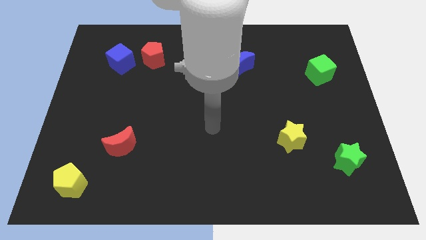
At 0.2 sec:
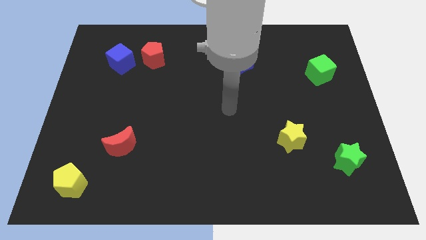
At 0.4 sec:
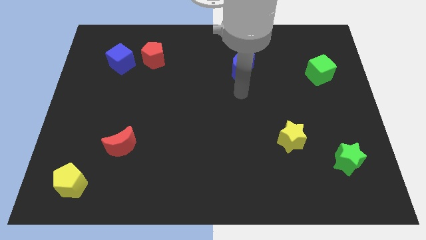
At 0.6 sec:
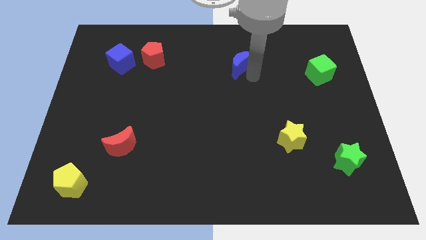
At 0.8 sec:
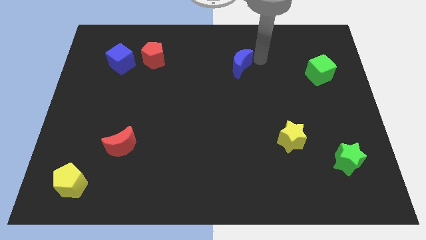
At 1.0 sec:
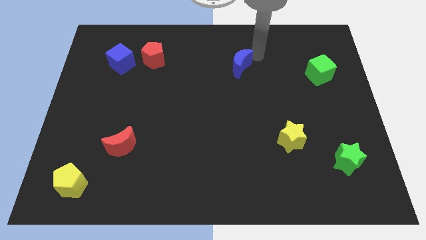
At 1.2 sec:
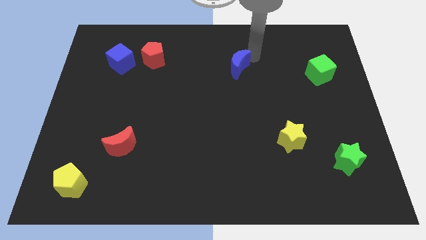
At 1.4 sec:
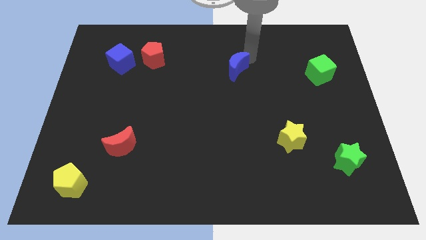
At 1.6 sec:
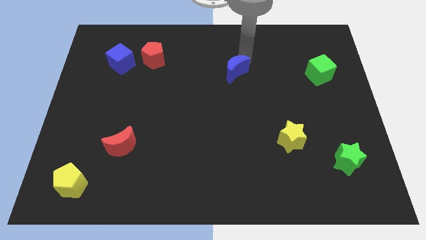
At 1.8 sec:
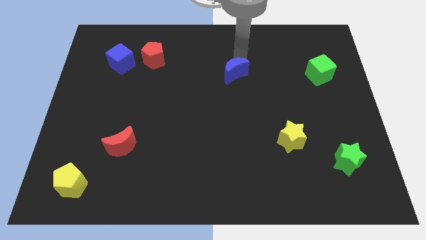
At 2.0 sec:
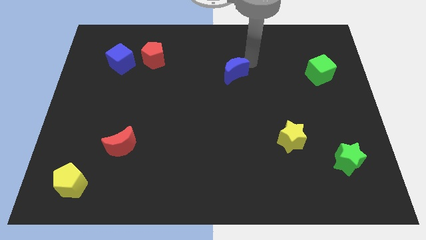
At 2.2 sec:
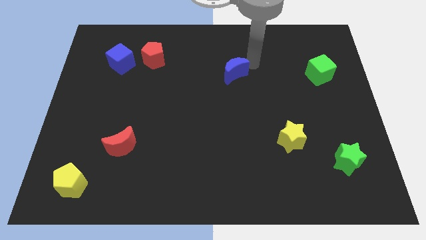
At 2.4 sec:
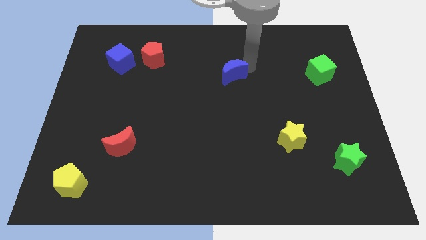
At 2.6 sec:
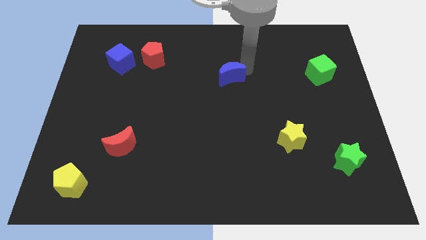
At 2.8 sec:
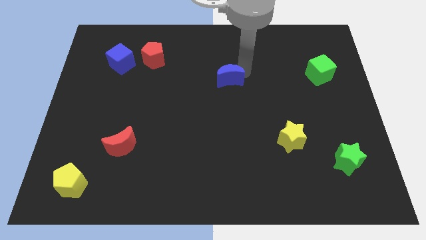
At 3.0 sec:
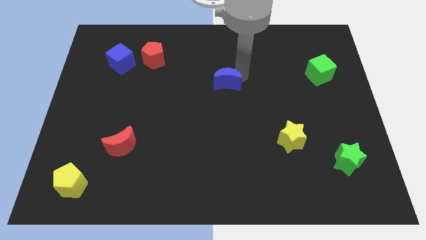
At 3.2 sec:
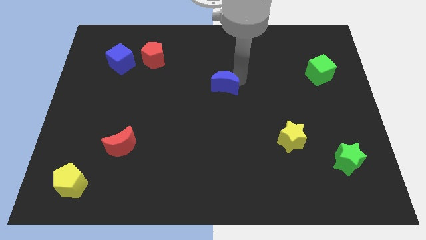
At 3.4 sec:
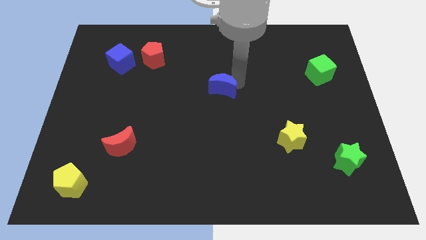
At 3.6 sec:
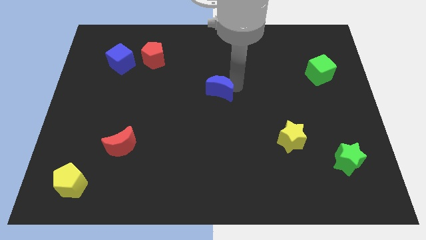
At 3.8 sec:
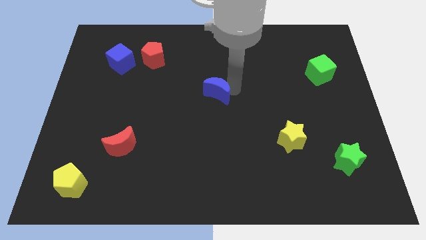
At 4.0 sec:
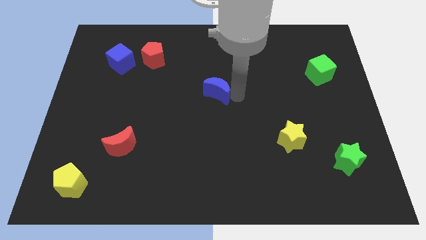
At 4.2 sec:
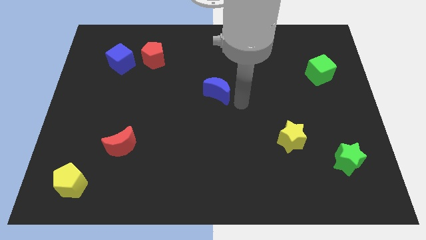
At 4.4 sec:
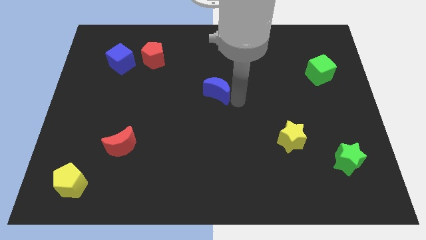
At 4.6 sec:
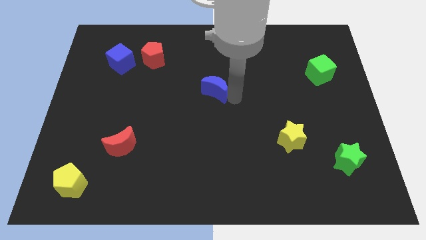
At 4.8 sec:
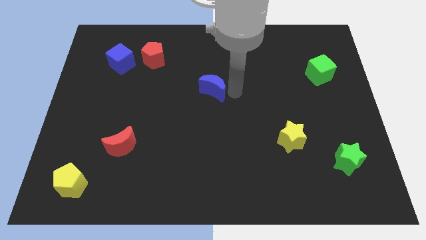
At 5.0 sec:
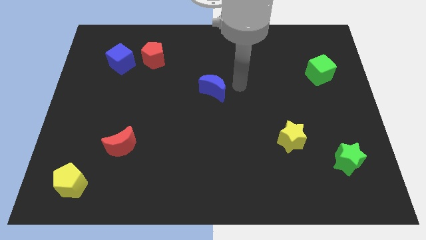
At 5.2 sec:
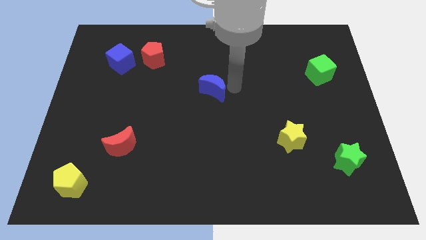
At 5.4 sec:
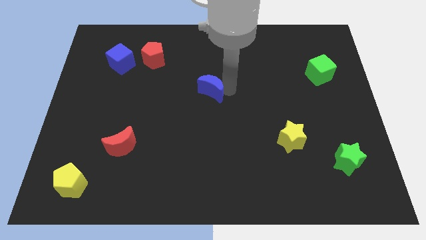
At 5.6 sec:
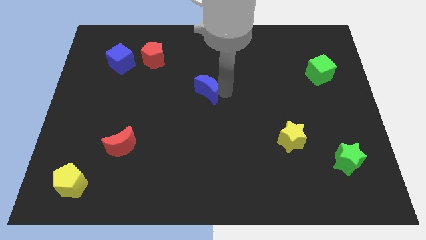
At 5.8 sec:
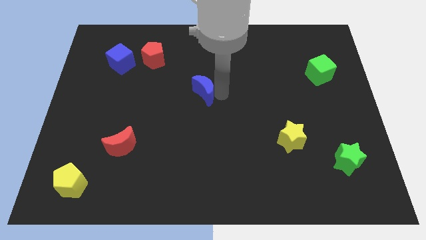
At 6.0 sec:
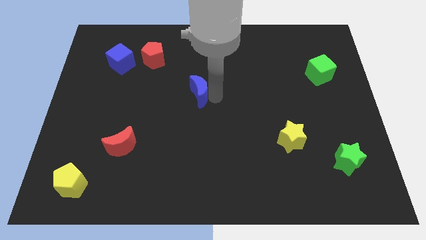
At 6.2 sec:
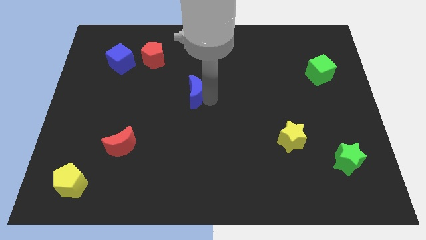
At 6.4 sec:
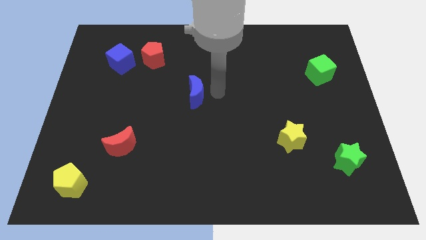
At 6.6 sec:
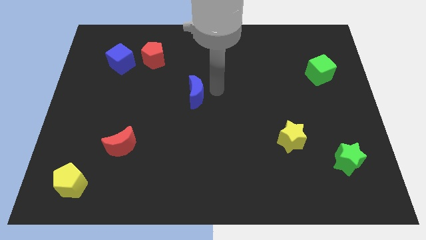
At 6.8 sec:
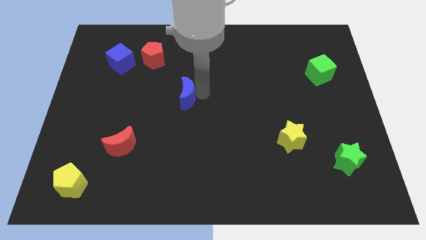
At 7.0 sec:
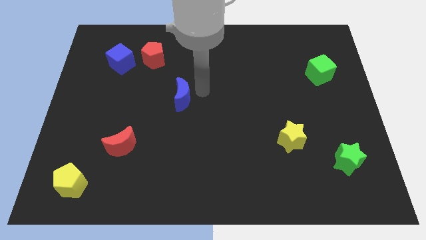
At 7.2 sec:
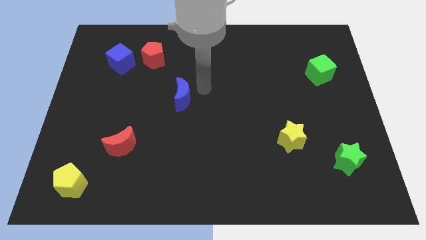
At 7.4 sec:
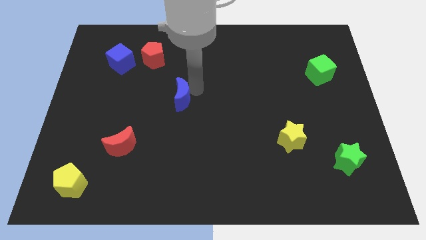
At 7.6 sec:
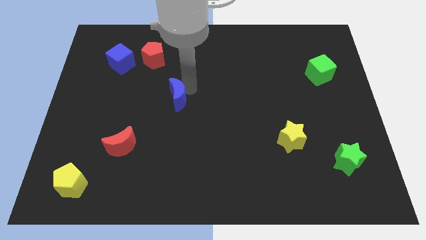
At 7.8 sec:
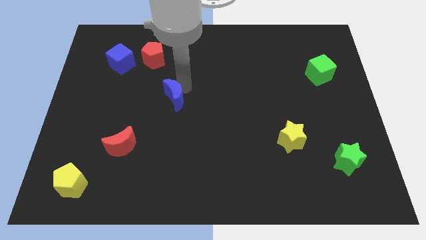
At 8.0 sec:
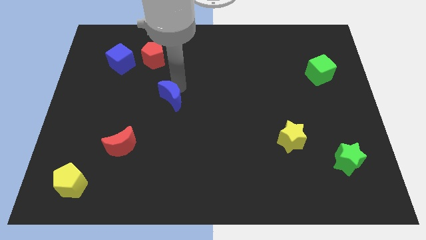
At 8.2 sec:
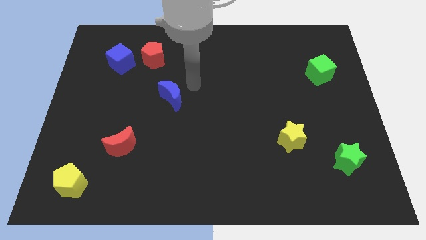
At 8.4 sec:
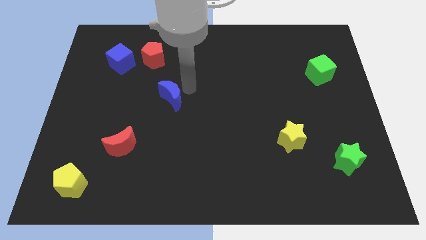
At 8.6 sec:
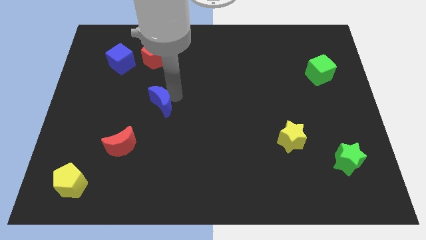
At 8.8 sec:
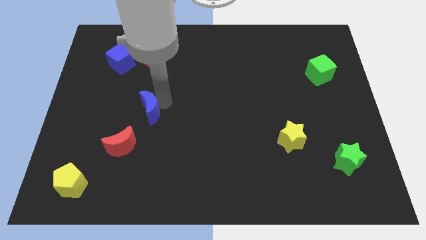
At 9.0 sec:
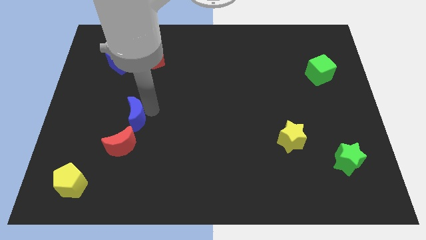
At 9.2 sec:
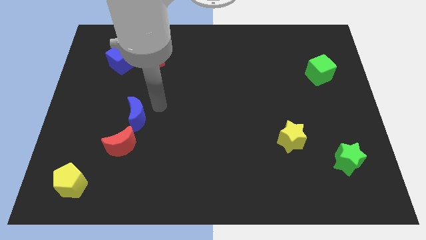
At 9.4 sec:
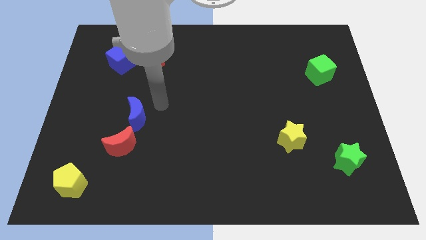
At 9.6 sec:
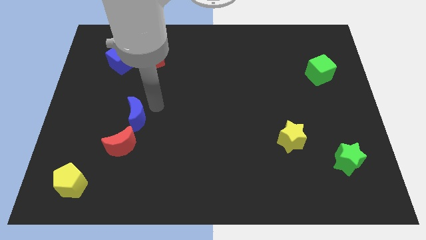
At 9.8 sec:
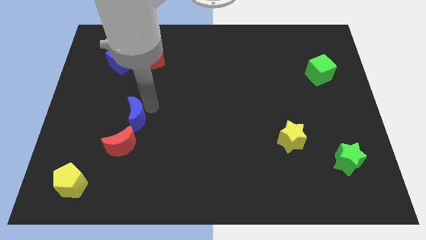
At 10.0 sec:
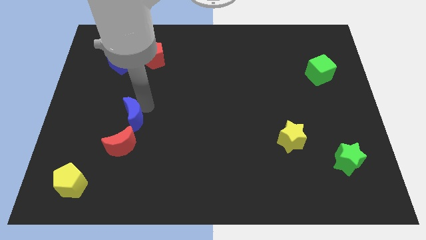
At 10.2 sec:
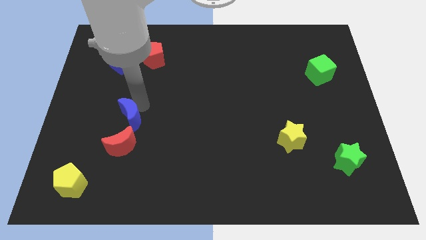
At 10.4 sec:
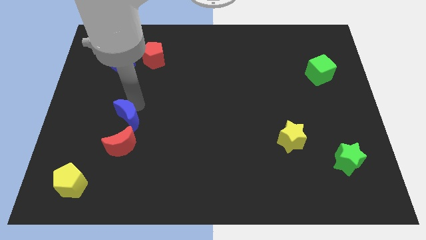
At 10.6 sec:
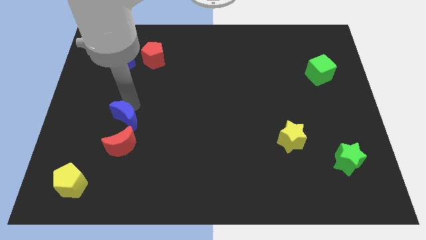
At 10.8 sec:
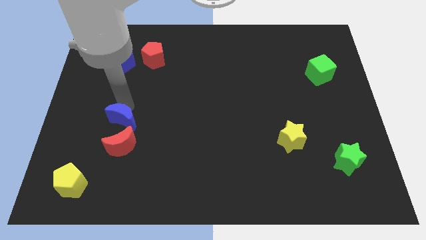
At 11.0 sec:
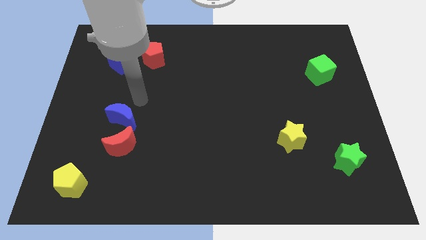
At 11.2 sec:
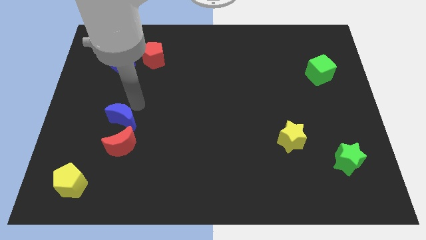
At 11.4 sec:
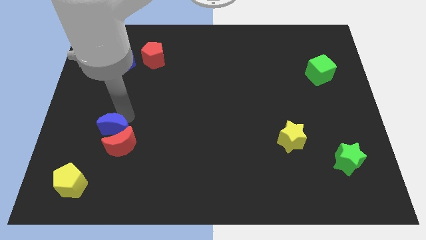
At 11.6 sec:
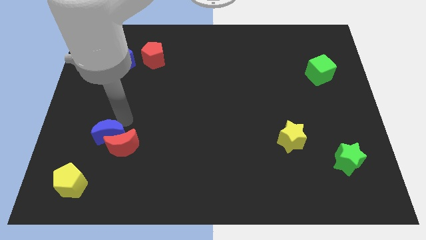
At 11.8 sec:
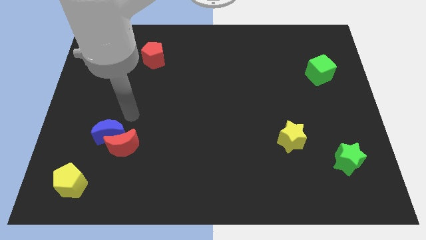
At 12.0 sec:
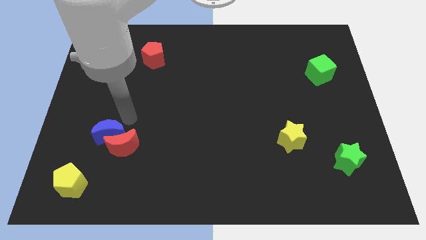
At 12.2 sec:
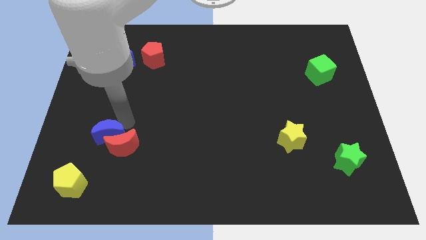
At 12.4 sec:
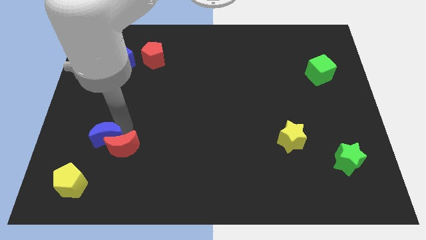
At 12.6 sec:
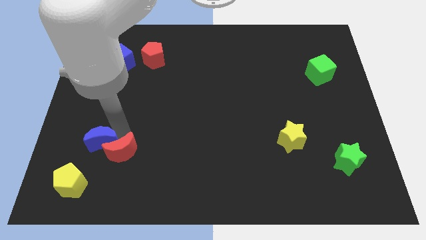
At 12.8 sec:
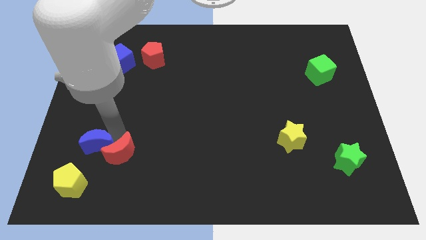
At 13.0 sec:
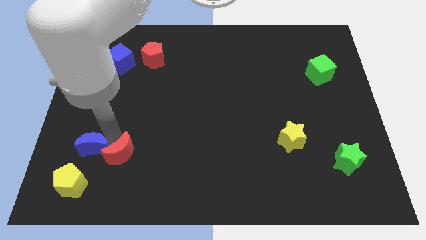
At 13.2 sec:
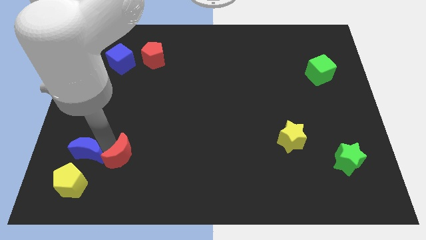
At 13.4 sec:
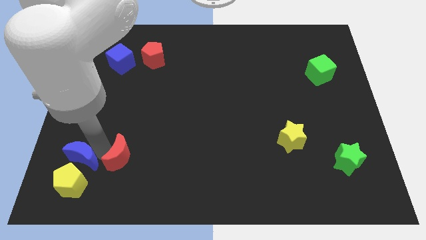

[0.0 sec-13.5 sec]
put the blue moon close to the yellow pentagon

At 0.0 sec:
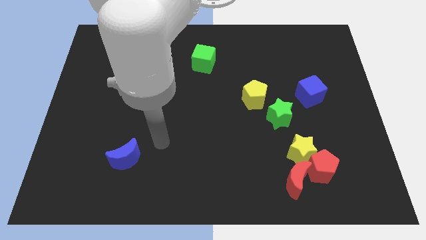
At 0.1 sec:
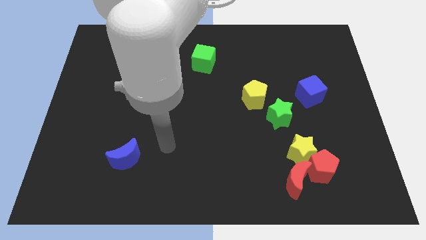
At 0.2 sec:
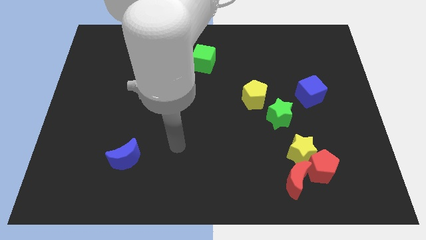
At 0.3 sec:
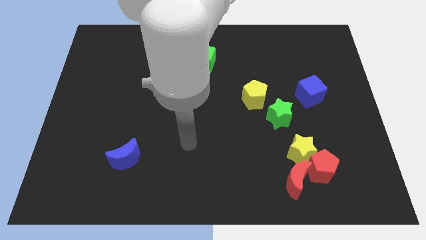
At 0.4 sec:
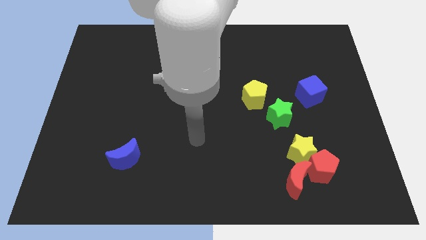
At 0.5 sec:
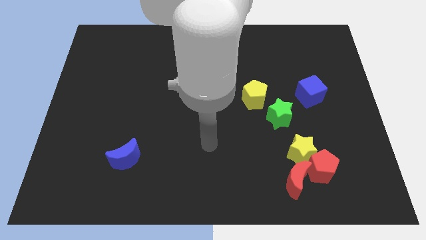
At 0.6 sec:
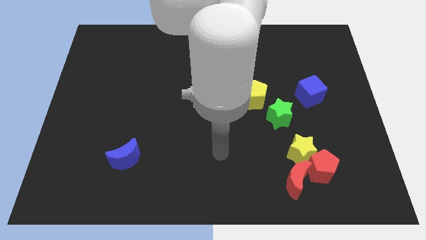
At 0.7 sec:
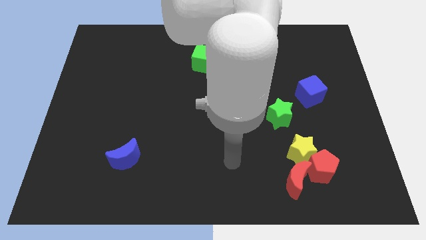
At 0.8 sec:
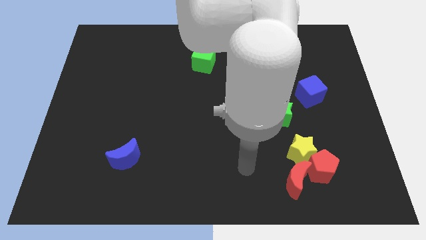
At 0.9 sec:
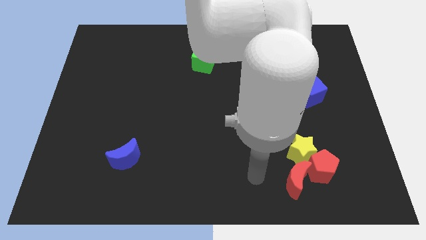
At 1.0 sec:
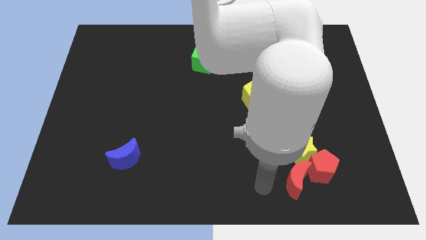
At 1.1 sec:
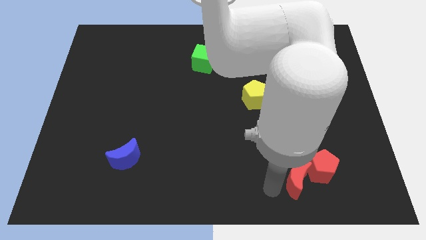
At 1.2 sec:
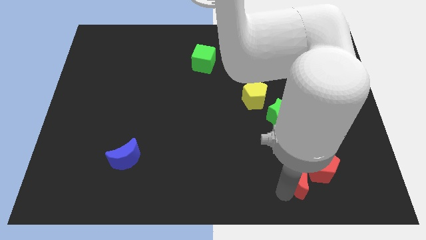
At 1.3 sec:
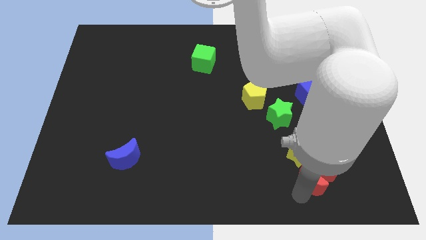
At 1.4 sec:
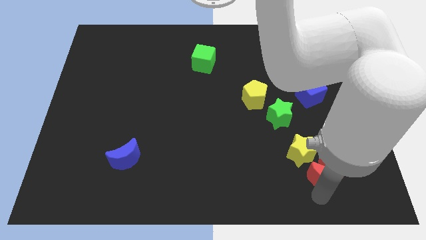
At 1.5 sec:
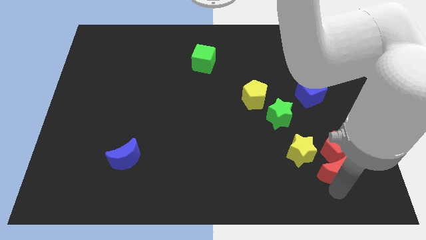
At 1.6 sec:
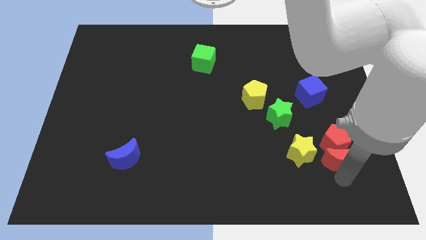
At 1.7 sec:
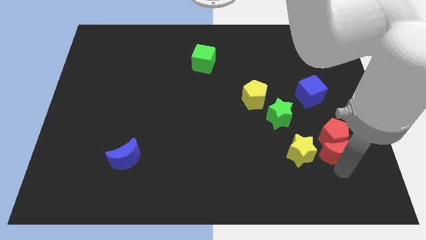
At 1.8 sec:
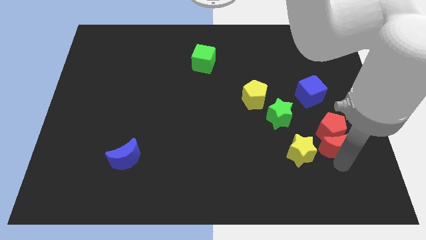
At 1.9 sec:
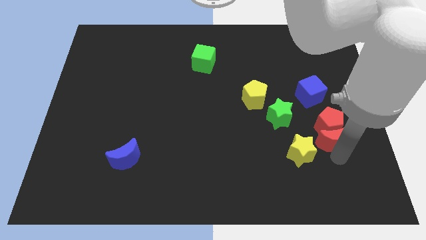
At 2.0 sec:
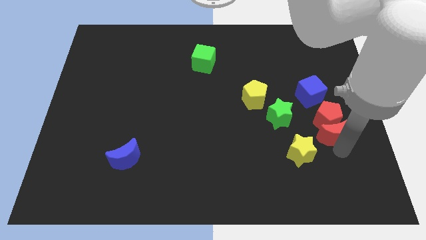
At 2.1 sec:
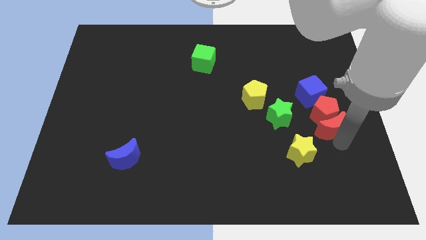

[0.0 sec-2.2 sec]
slide the red pentagon towards the blue cube
